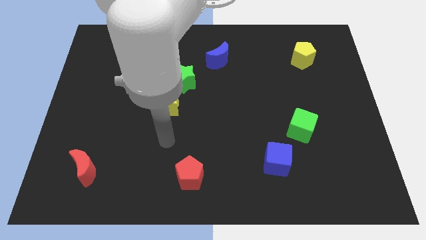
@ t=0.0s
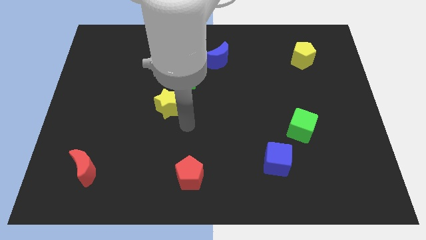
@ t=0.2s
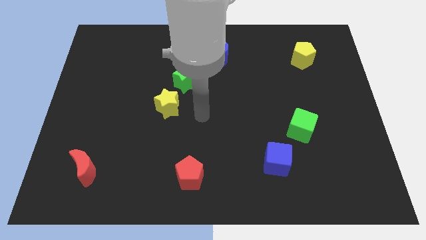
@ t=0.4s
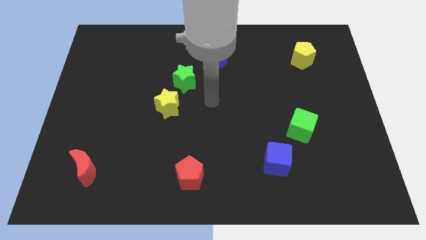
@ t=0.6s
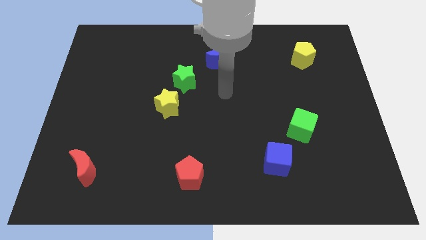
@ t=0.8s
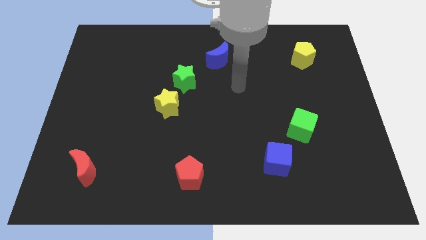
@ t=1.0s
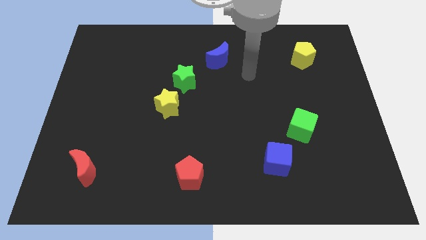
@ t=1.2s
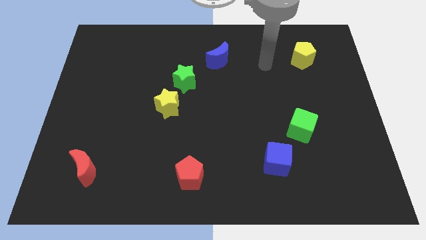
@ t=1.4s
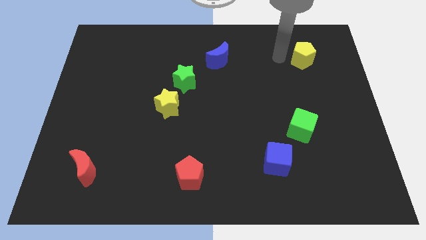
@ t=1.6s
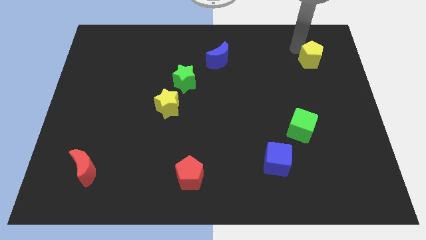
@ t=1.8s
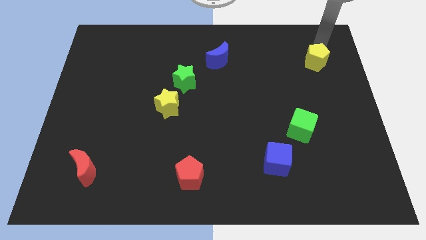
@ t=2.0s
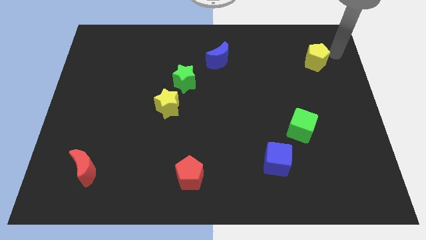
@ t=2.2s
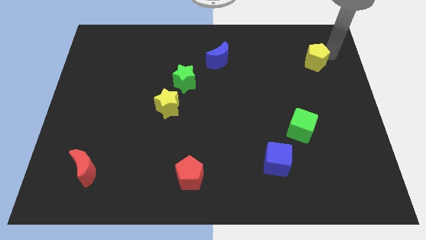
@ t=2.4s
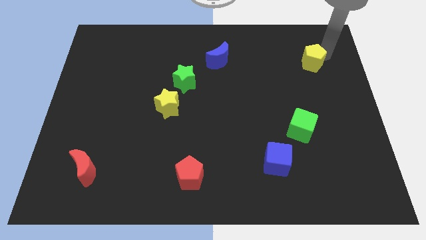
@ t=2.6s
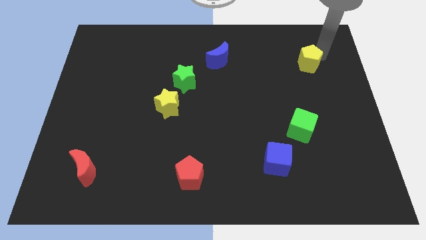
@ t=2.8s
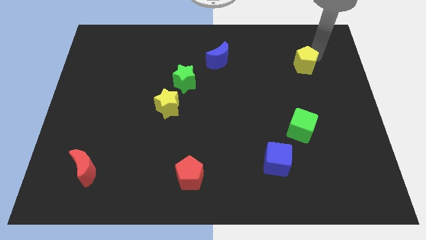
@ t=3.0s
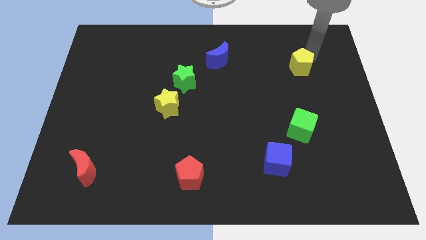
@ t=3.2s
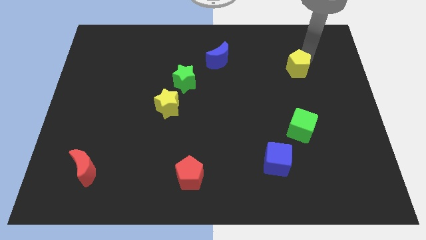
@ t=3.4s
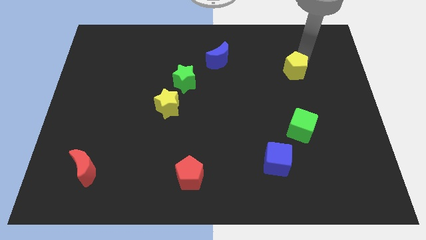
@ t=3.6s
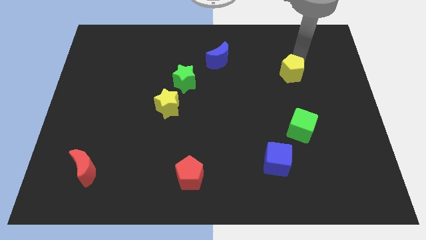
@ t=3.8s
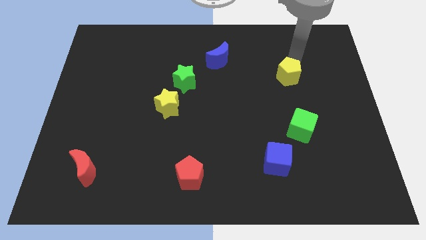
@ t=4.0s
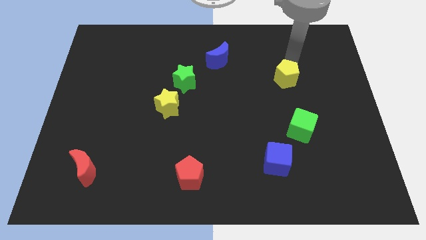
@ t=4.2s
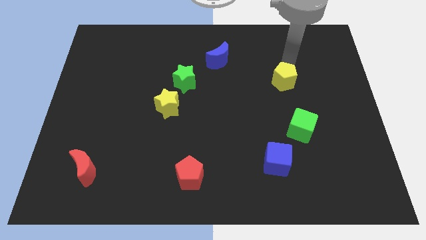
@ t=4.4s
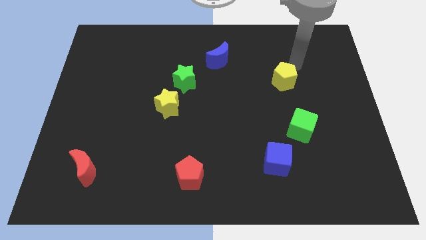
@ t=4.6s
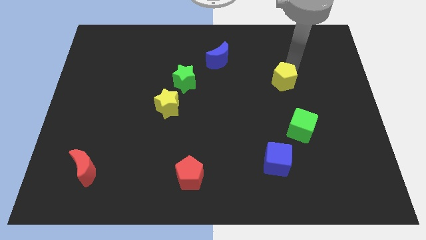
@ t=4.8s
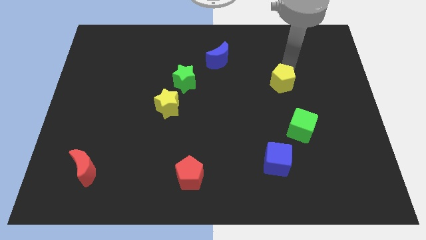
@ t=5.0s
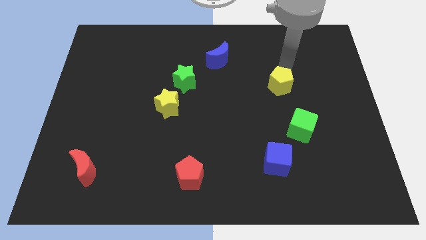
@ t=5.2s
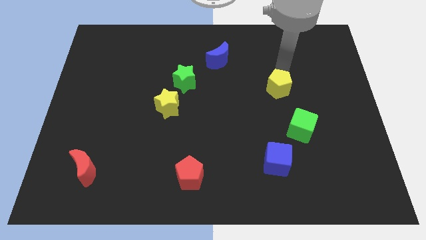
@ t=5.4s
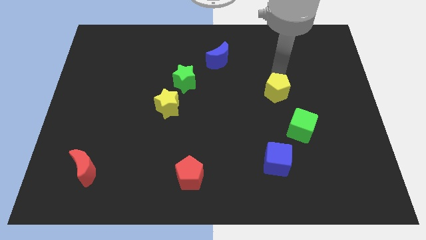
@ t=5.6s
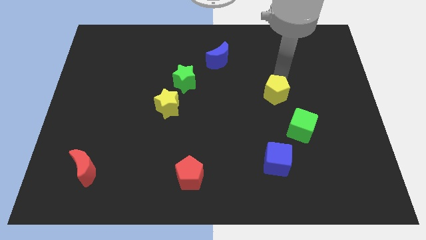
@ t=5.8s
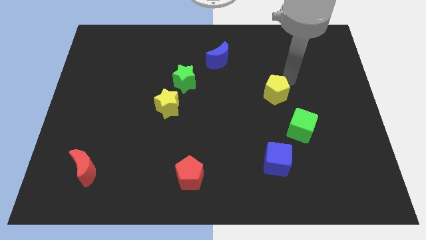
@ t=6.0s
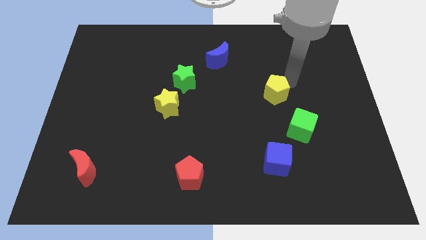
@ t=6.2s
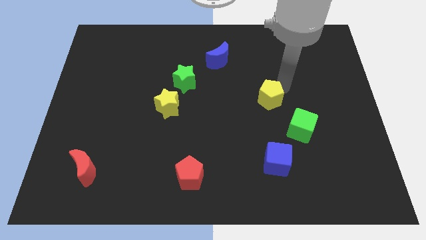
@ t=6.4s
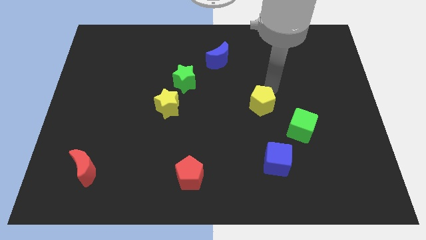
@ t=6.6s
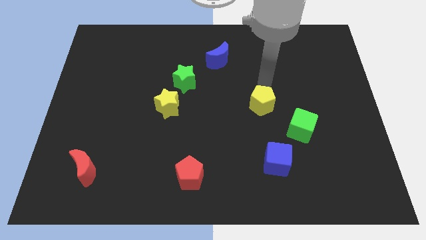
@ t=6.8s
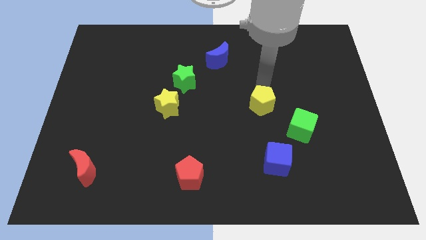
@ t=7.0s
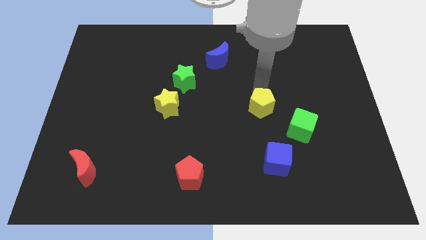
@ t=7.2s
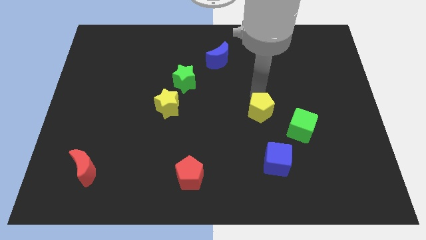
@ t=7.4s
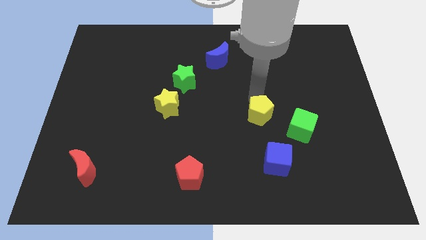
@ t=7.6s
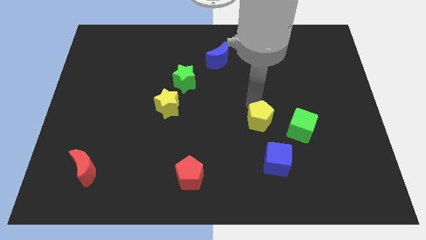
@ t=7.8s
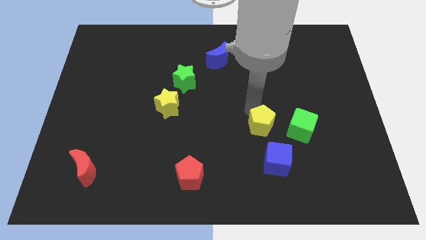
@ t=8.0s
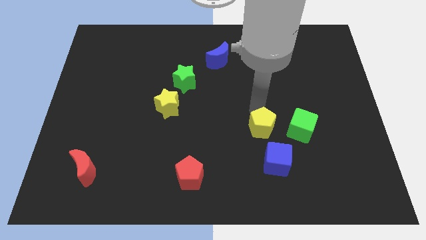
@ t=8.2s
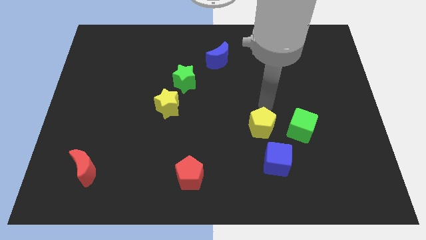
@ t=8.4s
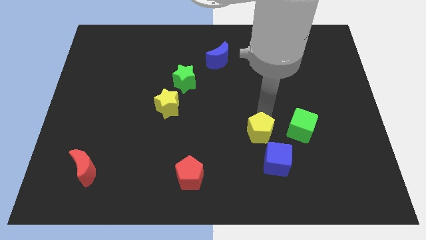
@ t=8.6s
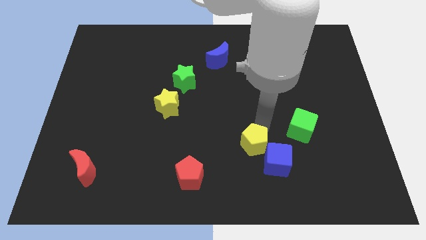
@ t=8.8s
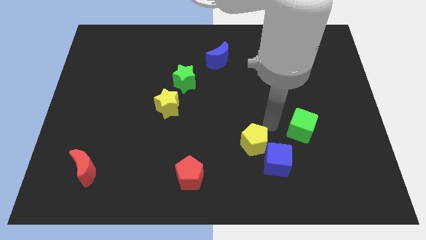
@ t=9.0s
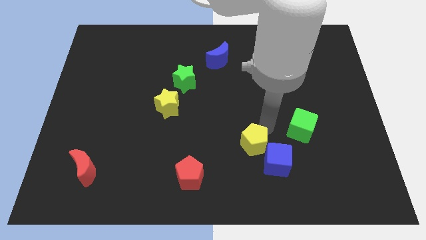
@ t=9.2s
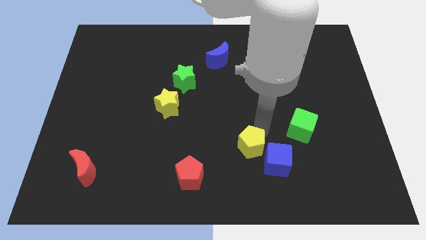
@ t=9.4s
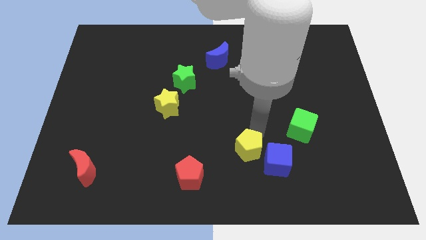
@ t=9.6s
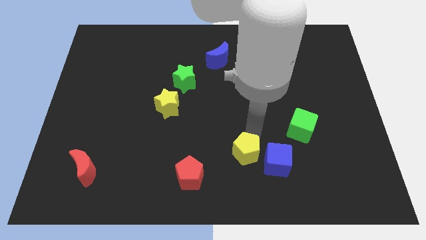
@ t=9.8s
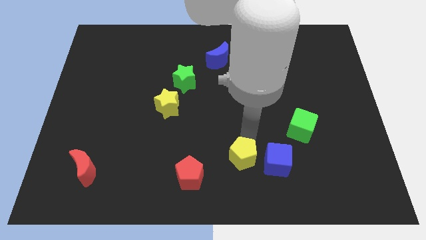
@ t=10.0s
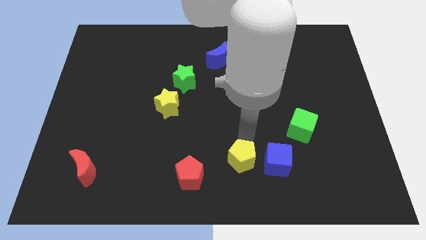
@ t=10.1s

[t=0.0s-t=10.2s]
move the yellow pentagon to the bottom
